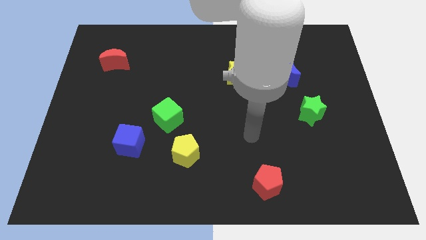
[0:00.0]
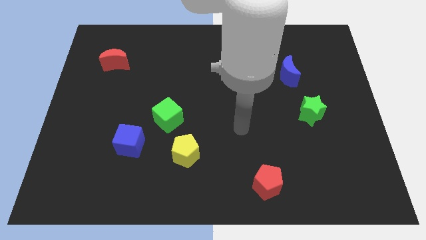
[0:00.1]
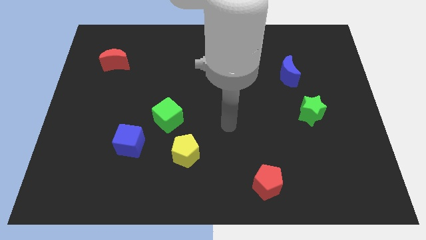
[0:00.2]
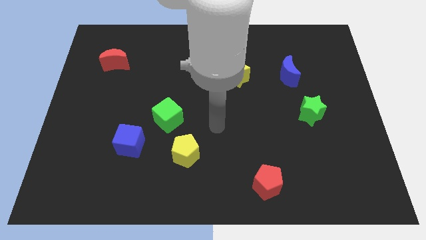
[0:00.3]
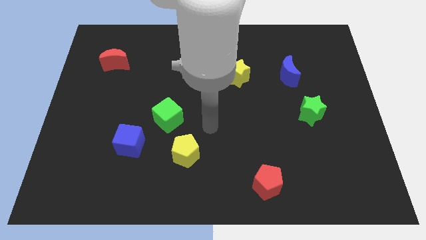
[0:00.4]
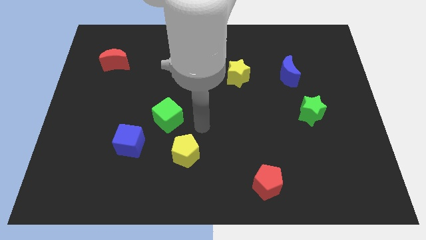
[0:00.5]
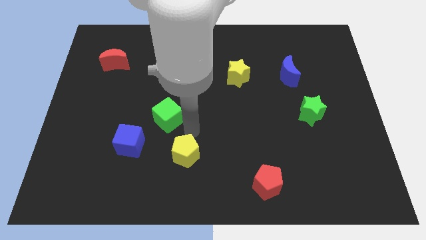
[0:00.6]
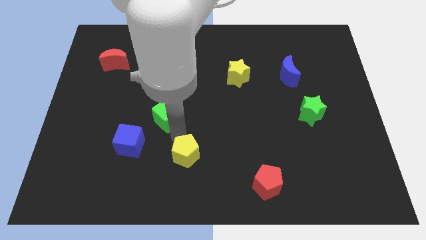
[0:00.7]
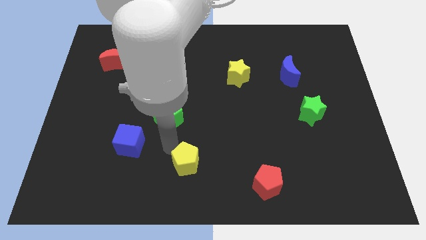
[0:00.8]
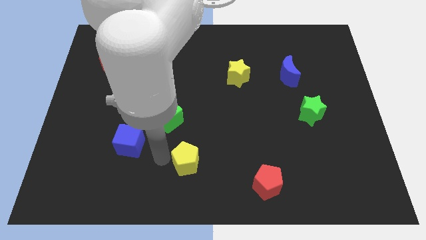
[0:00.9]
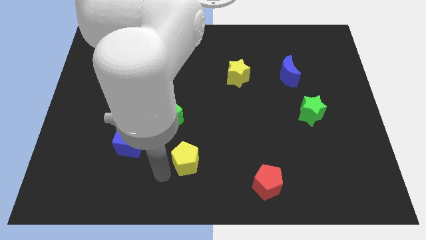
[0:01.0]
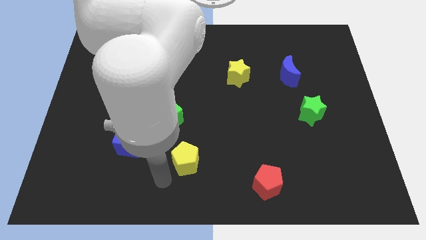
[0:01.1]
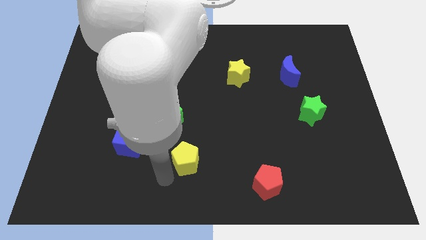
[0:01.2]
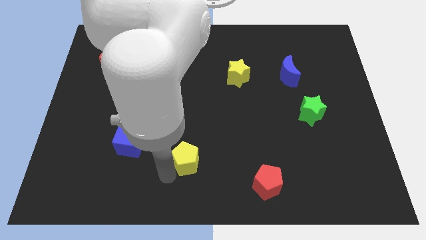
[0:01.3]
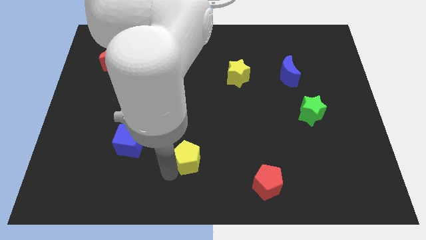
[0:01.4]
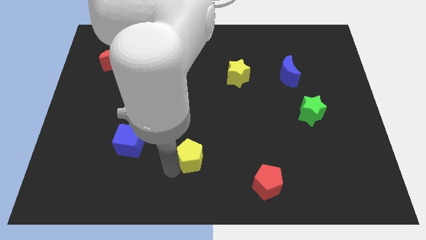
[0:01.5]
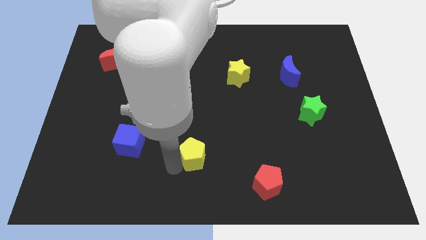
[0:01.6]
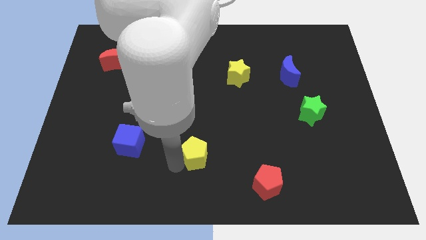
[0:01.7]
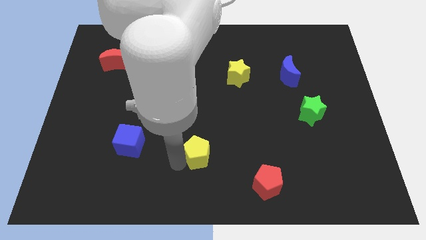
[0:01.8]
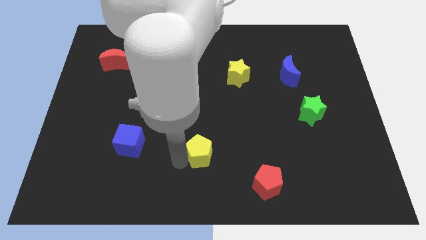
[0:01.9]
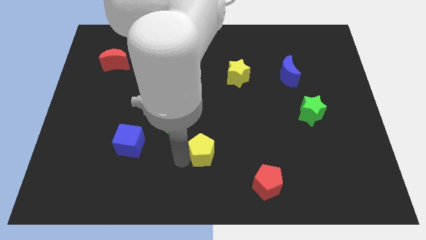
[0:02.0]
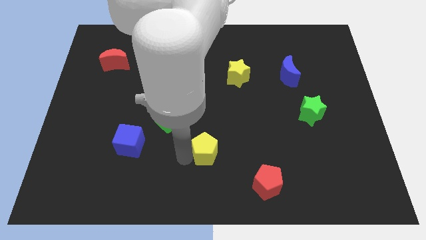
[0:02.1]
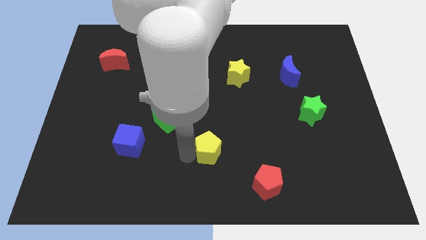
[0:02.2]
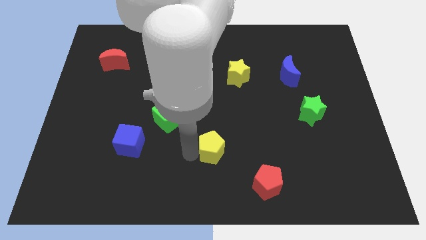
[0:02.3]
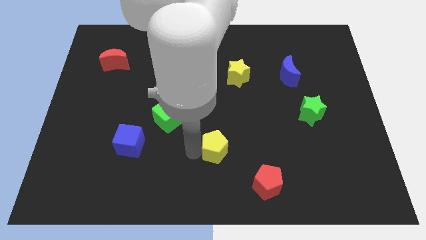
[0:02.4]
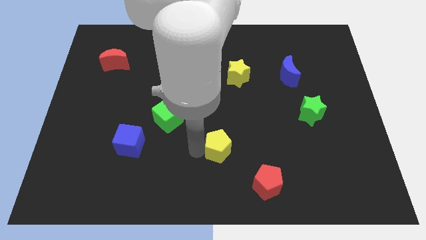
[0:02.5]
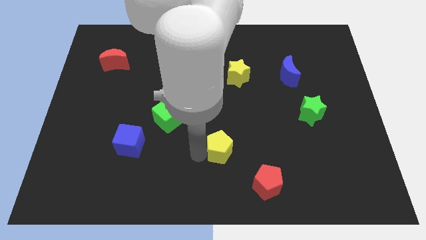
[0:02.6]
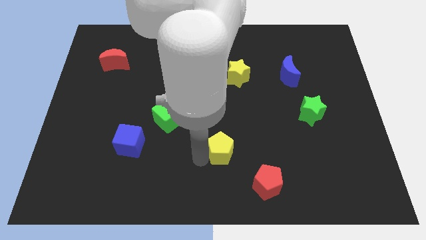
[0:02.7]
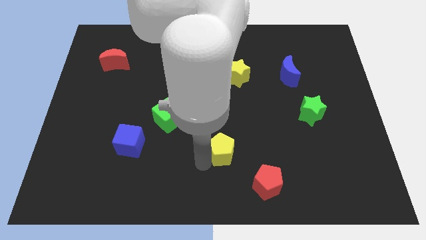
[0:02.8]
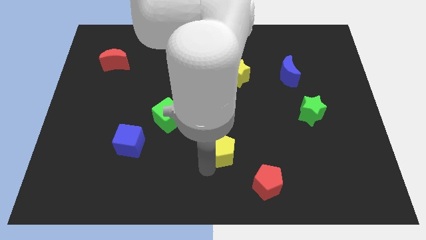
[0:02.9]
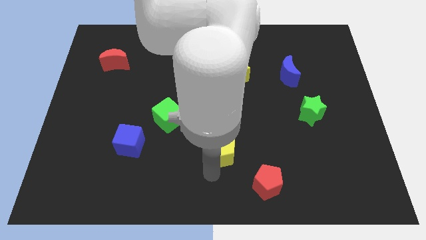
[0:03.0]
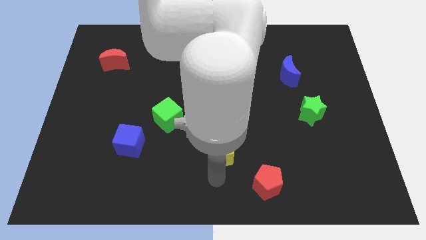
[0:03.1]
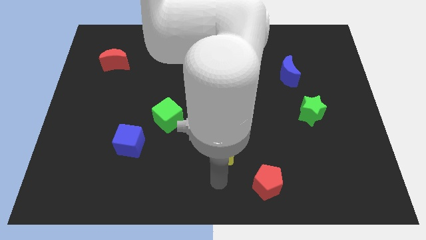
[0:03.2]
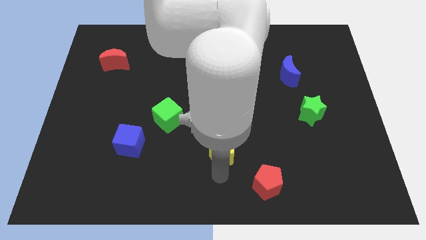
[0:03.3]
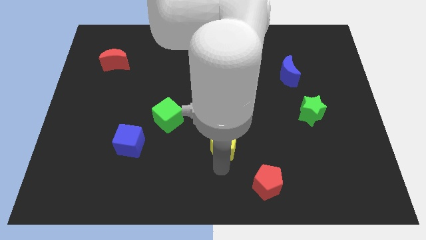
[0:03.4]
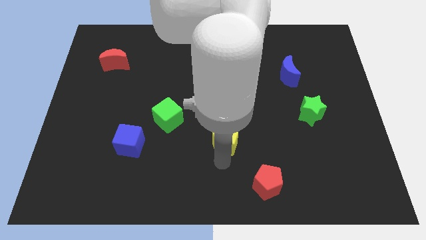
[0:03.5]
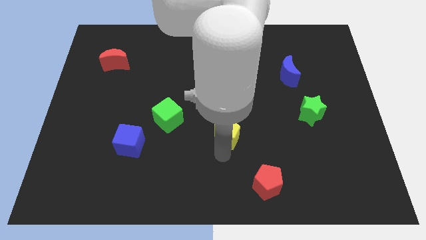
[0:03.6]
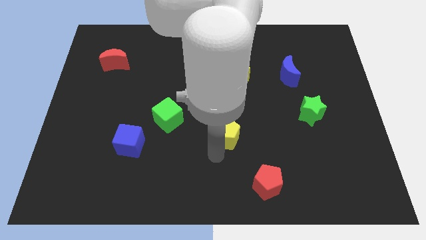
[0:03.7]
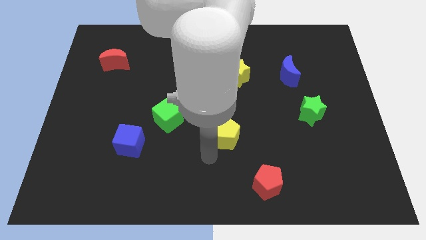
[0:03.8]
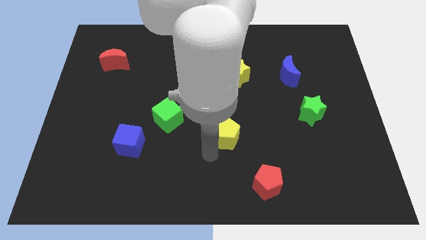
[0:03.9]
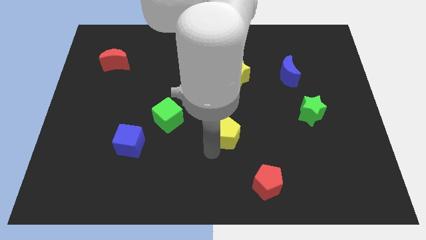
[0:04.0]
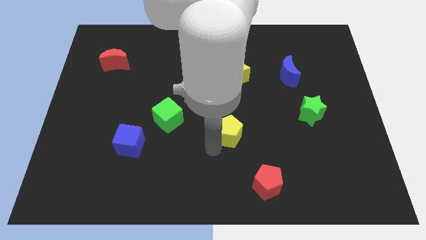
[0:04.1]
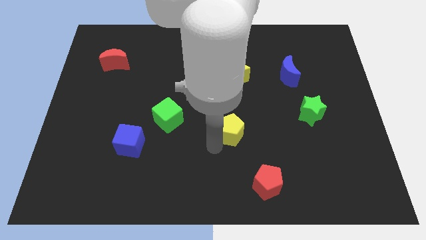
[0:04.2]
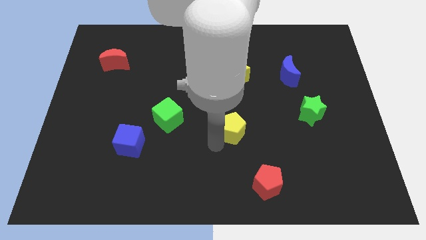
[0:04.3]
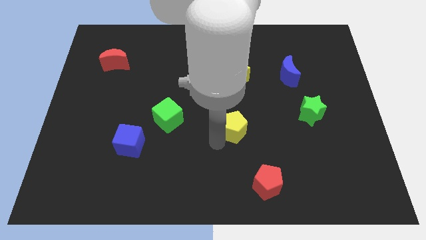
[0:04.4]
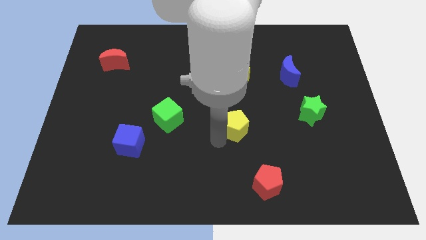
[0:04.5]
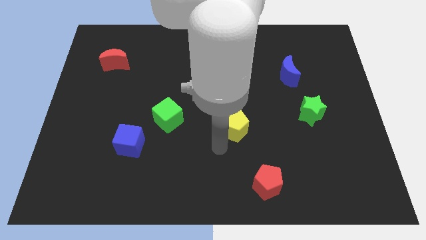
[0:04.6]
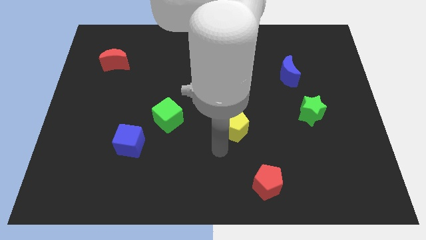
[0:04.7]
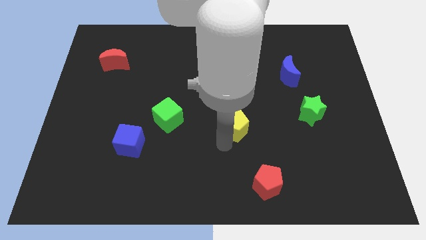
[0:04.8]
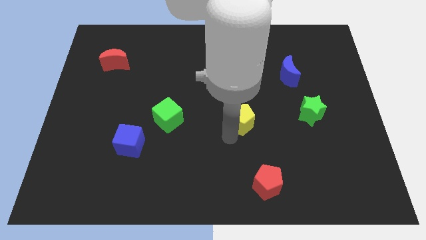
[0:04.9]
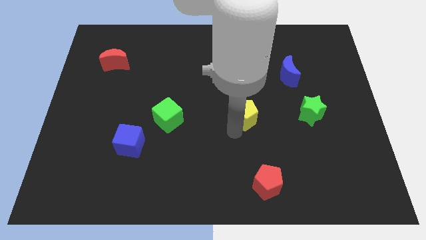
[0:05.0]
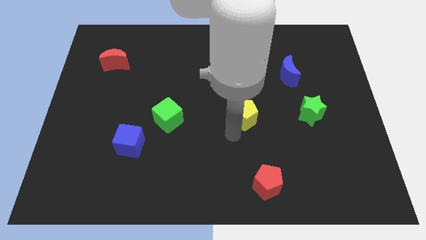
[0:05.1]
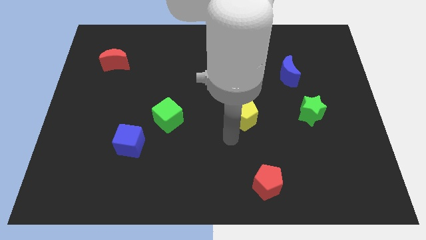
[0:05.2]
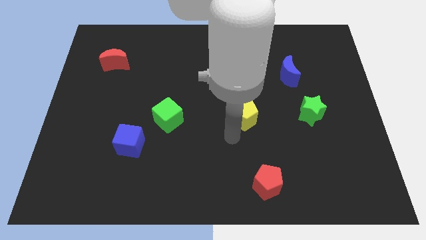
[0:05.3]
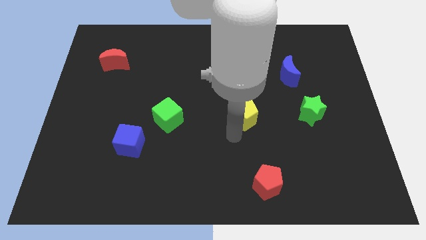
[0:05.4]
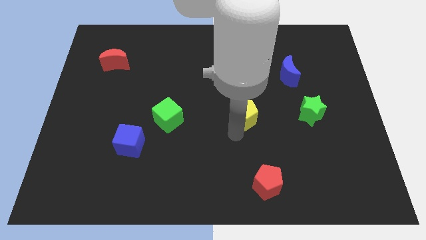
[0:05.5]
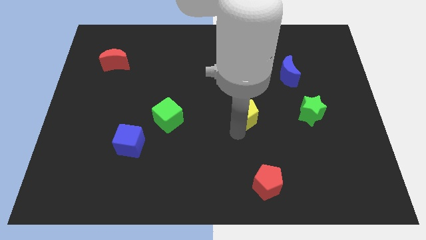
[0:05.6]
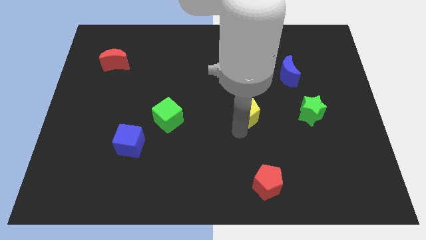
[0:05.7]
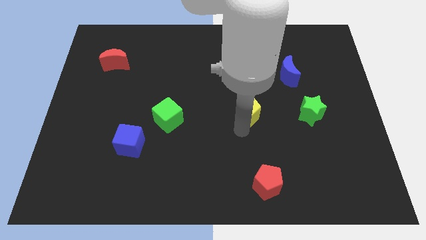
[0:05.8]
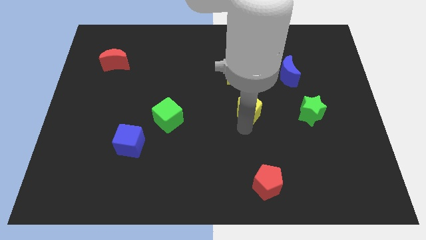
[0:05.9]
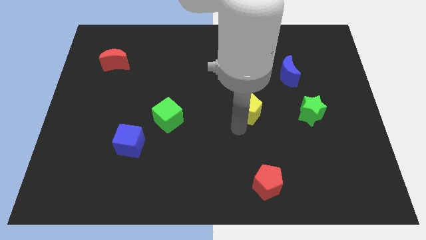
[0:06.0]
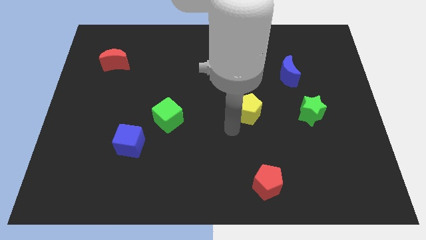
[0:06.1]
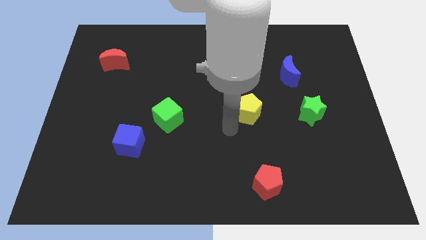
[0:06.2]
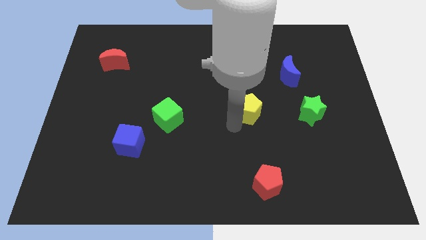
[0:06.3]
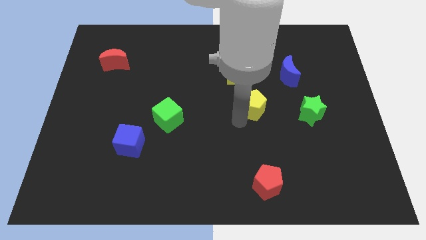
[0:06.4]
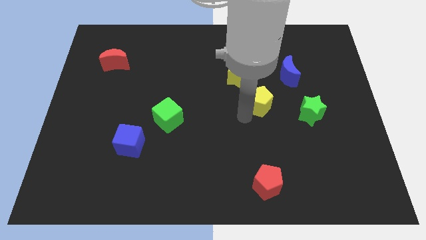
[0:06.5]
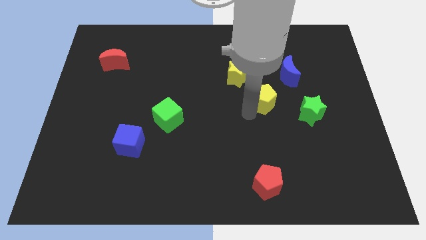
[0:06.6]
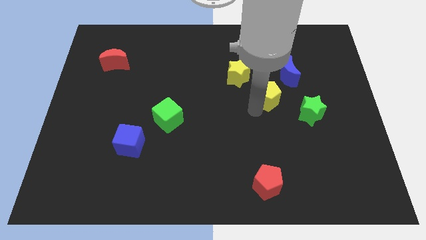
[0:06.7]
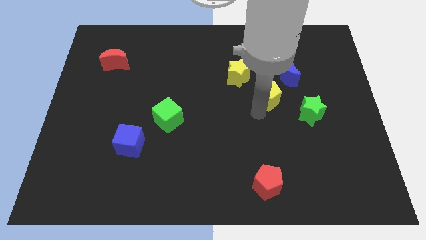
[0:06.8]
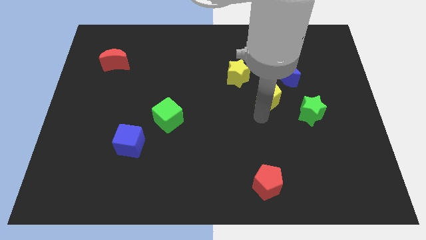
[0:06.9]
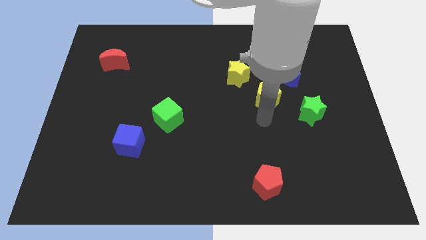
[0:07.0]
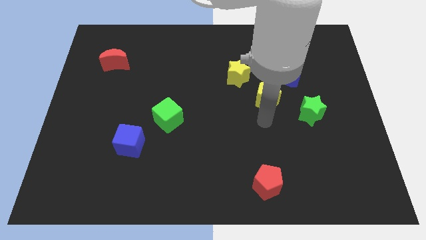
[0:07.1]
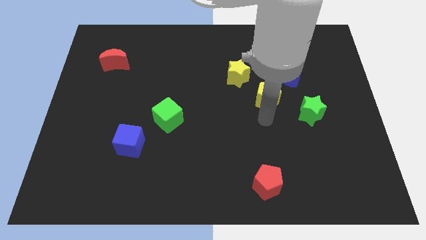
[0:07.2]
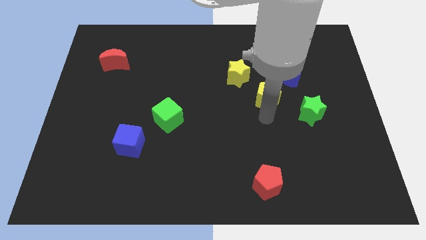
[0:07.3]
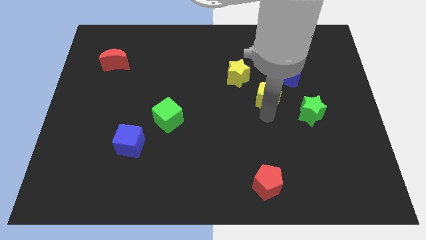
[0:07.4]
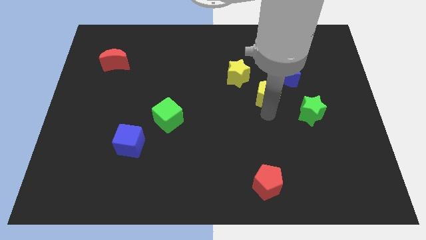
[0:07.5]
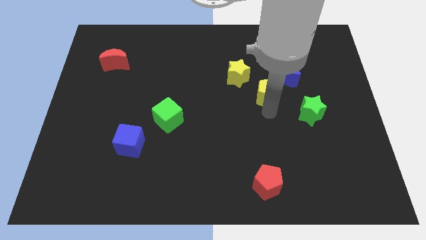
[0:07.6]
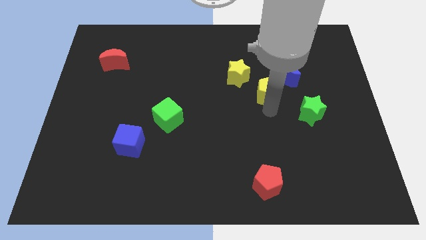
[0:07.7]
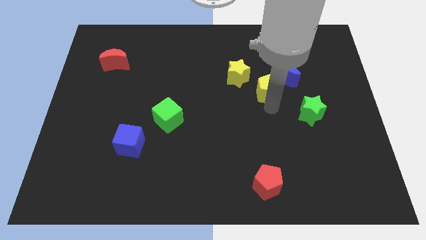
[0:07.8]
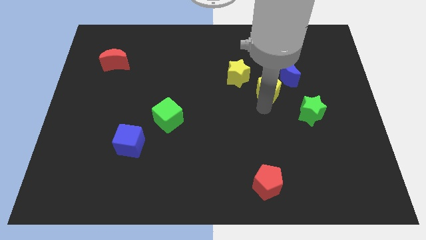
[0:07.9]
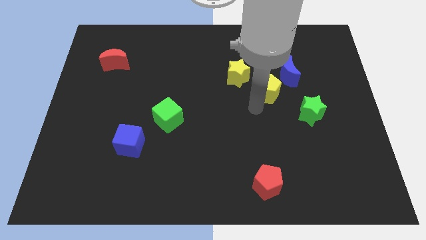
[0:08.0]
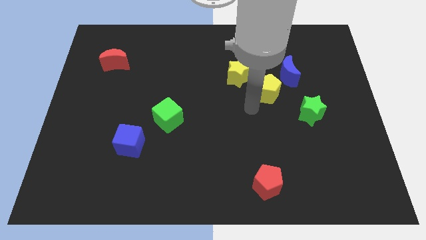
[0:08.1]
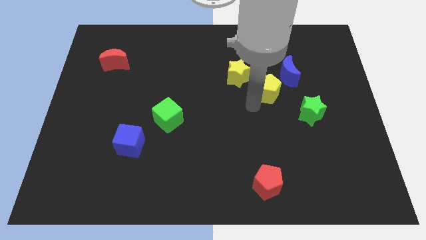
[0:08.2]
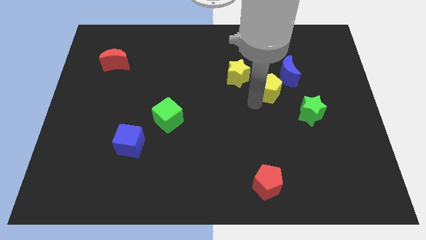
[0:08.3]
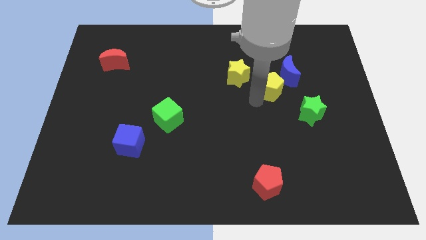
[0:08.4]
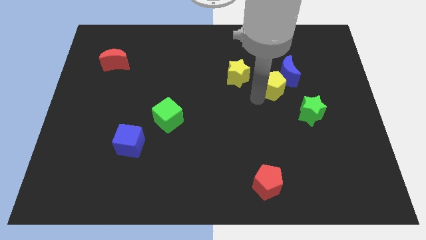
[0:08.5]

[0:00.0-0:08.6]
put the yellow pentagon close to the blue moon
